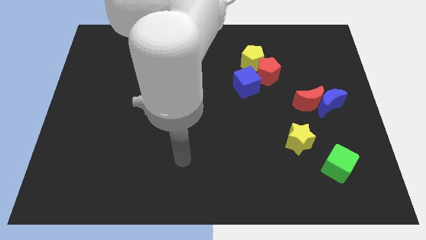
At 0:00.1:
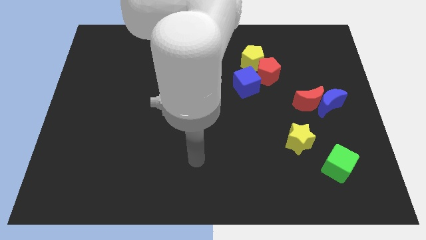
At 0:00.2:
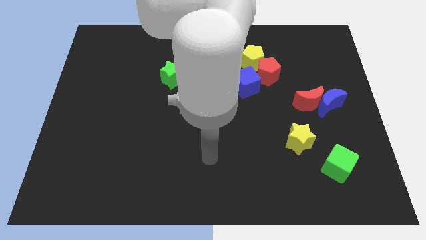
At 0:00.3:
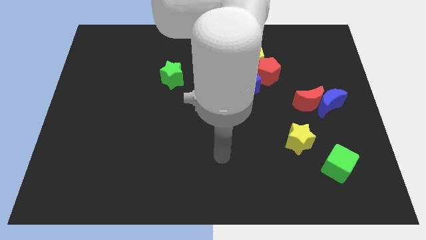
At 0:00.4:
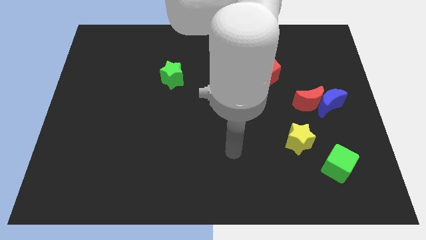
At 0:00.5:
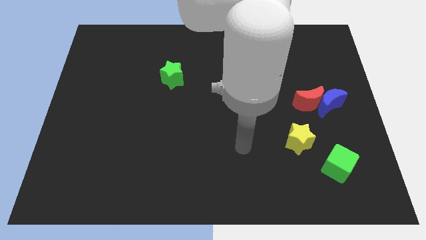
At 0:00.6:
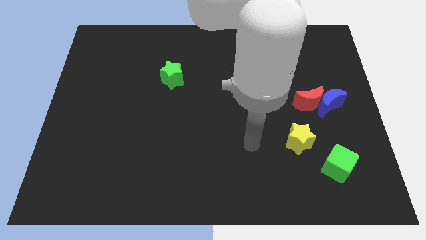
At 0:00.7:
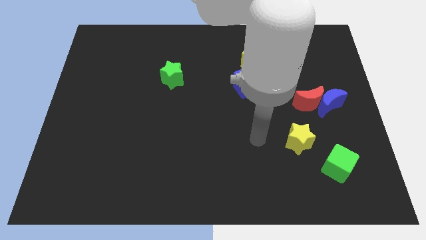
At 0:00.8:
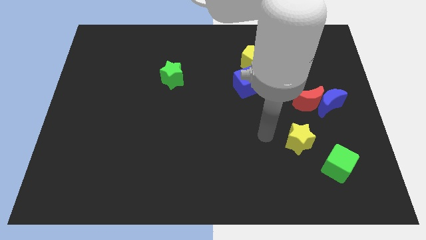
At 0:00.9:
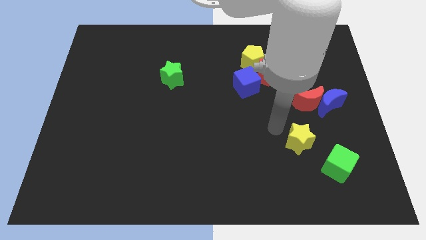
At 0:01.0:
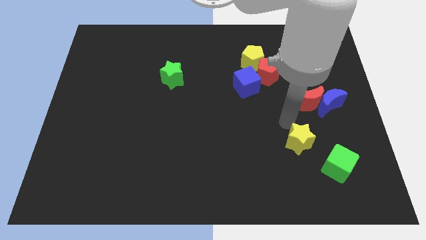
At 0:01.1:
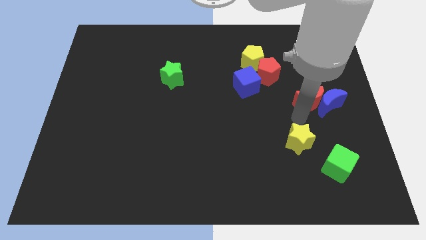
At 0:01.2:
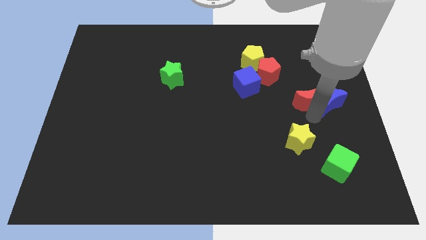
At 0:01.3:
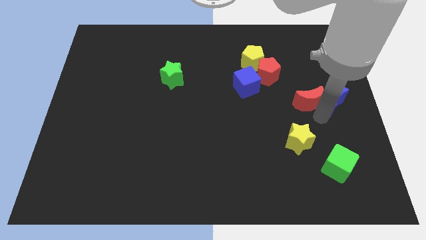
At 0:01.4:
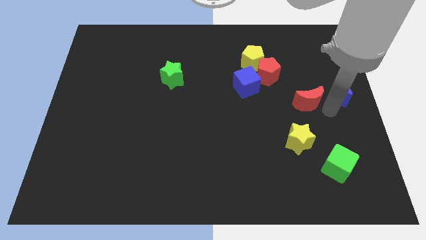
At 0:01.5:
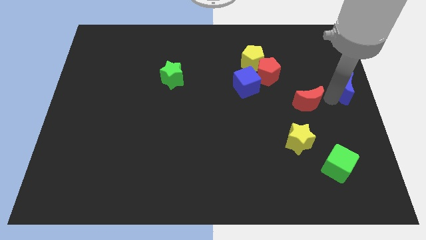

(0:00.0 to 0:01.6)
move the red moon away from the blue moon

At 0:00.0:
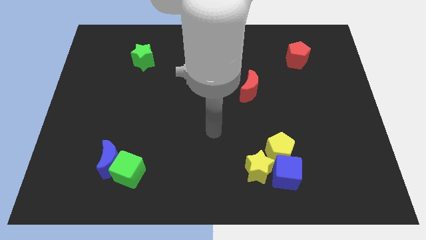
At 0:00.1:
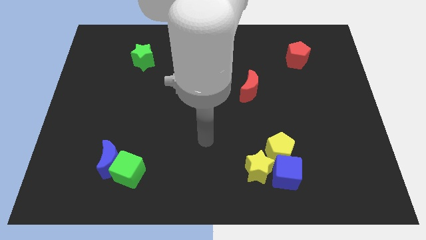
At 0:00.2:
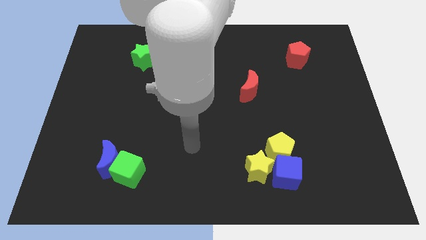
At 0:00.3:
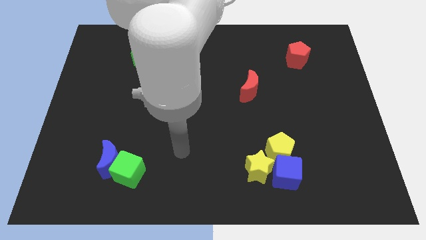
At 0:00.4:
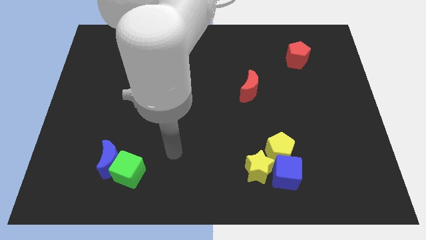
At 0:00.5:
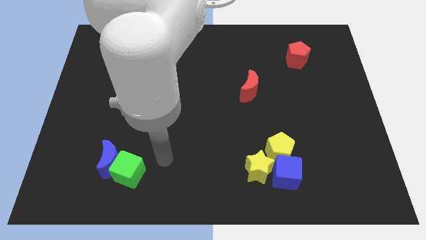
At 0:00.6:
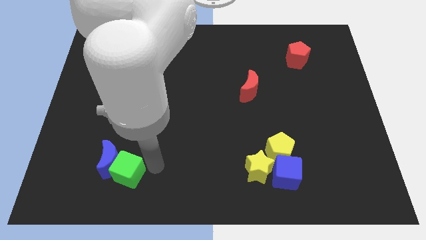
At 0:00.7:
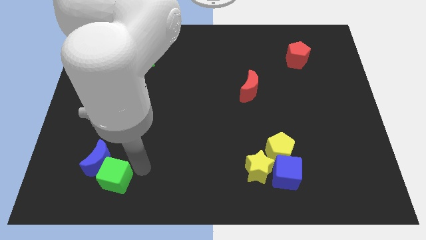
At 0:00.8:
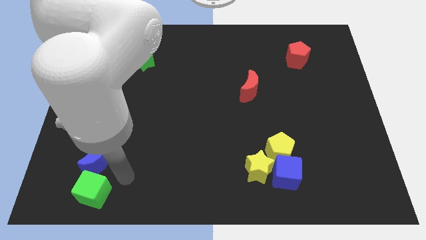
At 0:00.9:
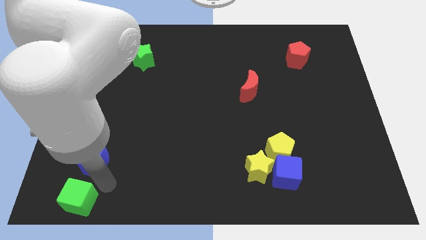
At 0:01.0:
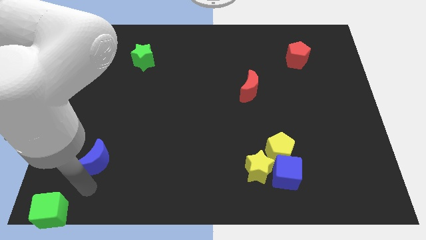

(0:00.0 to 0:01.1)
pull the blue moon apart from the green cube

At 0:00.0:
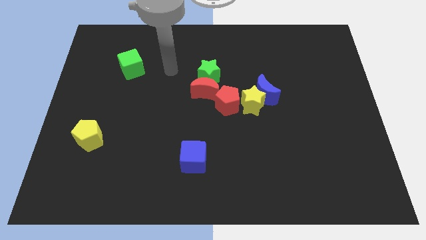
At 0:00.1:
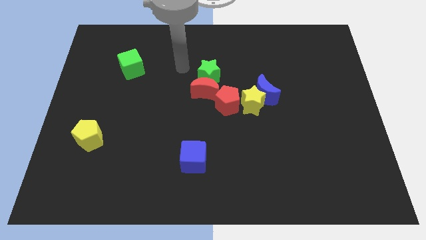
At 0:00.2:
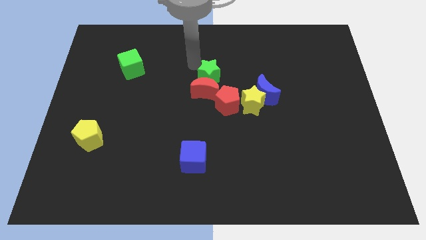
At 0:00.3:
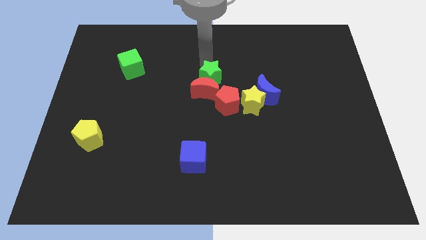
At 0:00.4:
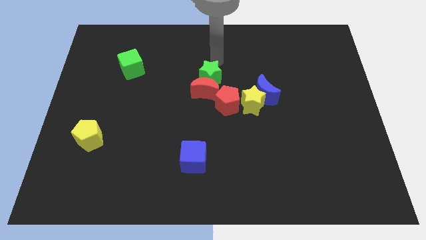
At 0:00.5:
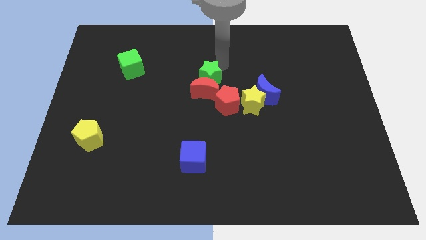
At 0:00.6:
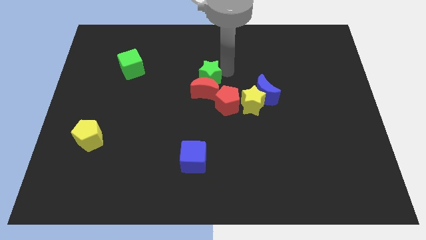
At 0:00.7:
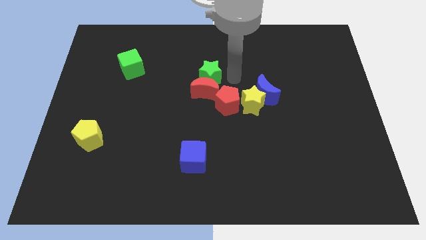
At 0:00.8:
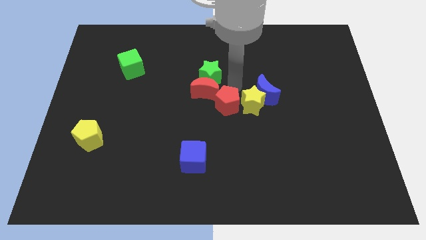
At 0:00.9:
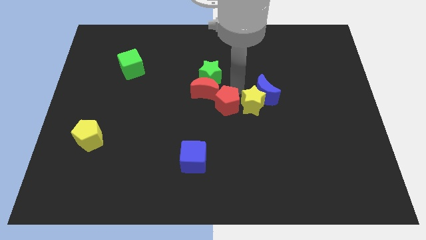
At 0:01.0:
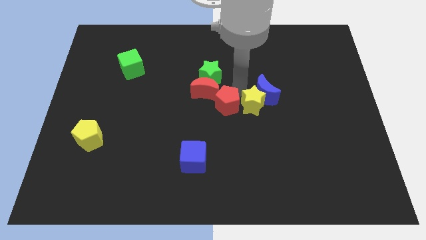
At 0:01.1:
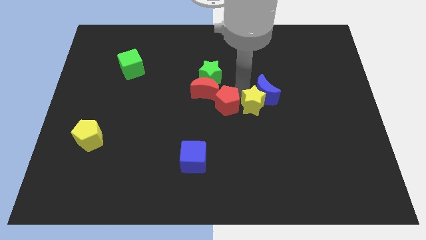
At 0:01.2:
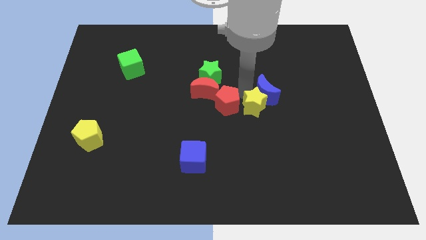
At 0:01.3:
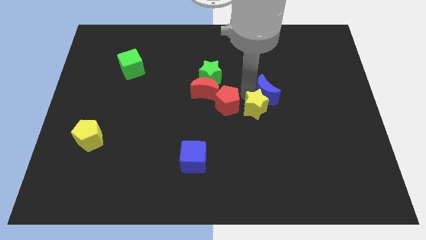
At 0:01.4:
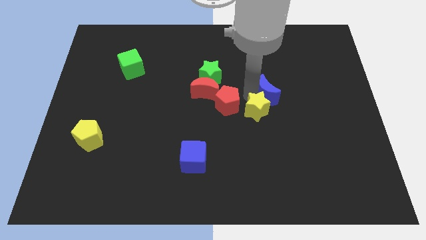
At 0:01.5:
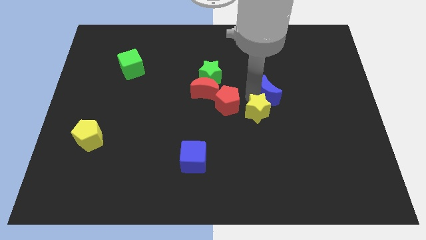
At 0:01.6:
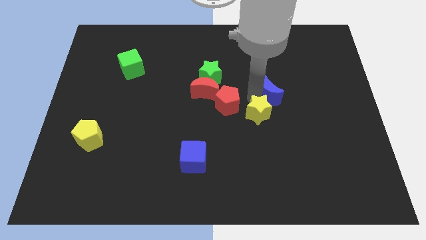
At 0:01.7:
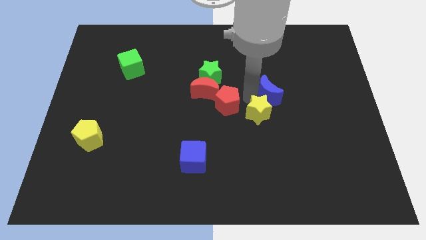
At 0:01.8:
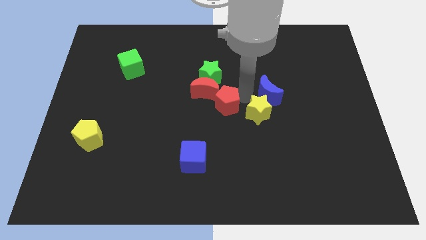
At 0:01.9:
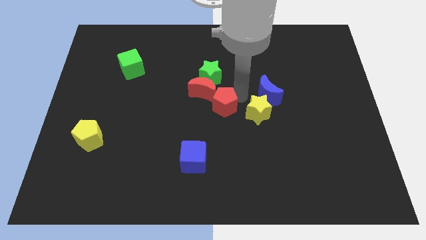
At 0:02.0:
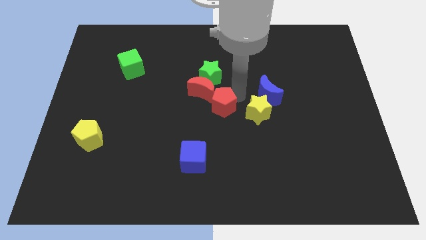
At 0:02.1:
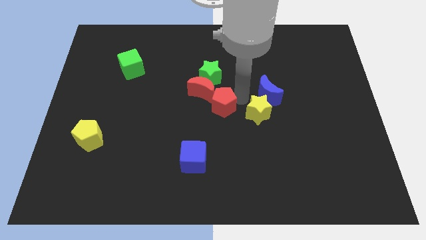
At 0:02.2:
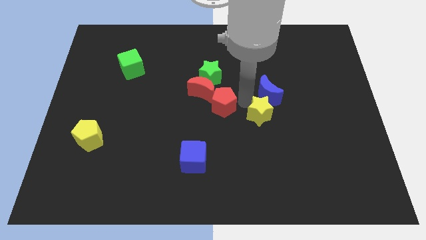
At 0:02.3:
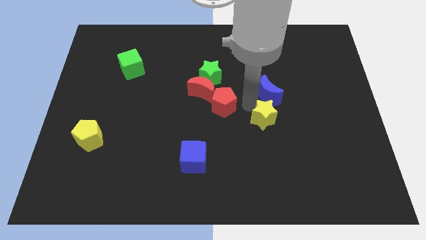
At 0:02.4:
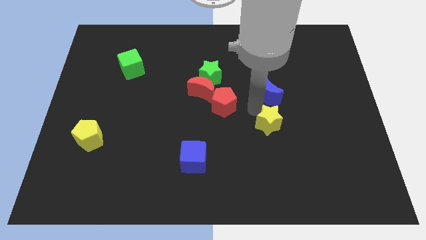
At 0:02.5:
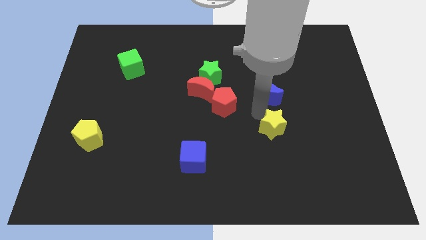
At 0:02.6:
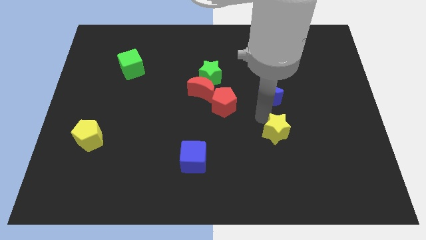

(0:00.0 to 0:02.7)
separate the yellow star from the blue moon and red pentagon

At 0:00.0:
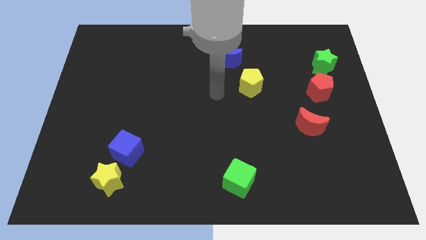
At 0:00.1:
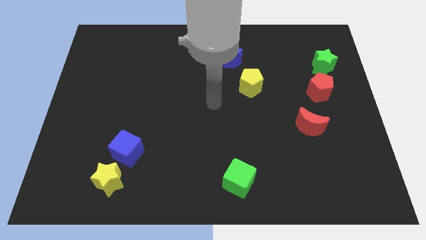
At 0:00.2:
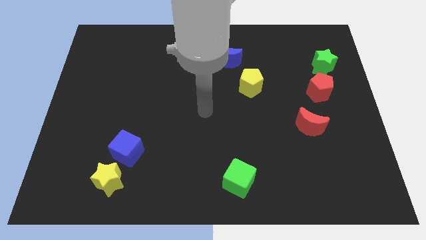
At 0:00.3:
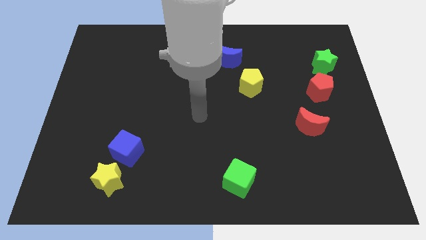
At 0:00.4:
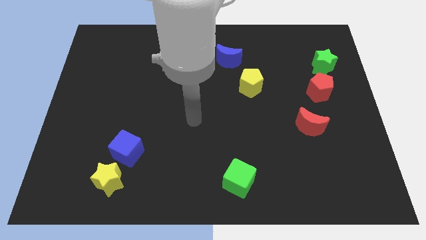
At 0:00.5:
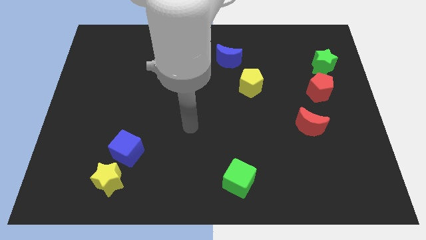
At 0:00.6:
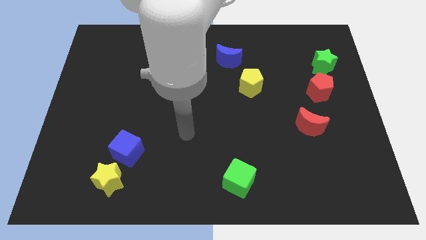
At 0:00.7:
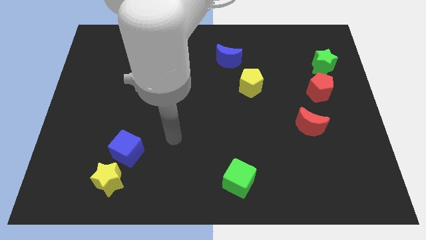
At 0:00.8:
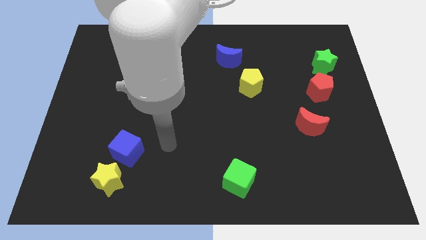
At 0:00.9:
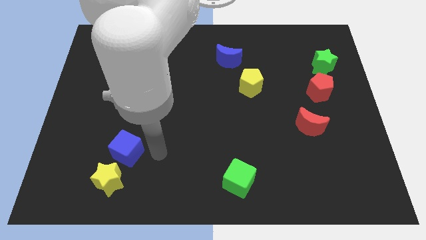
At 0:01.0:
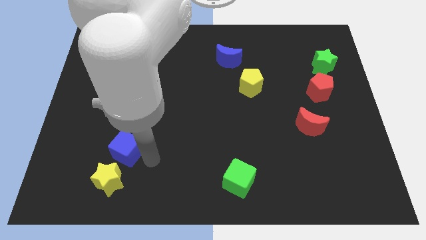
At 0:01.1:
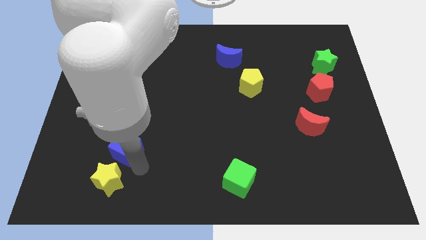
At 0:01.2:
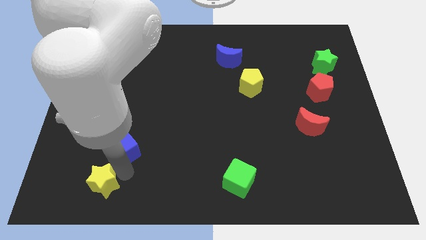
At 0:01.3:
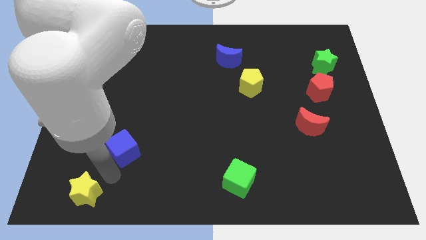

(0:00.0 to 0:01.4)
pull the blue cube apart from the yellow star

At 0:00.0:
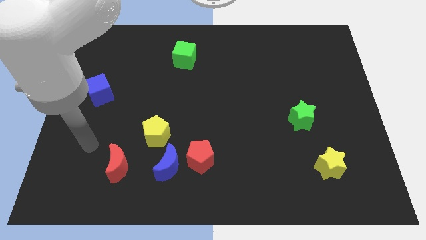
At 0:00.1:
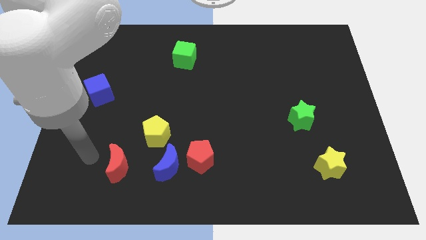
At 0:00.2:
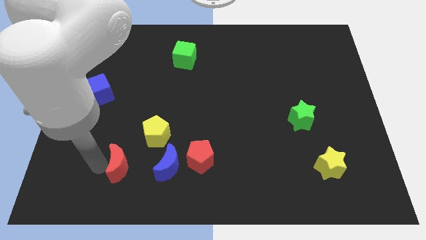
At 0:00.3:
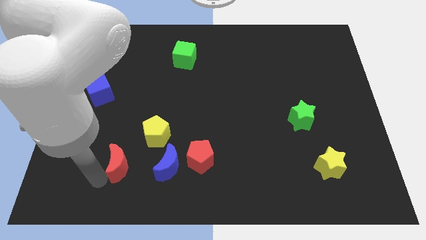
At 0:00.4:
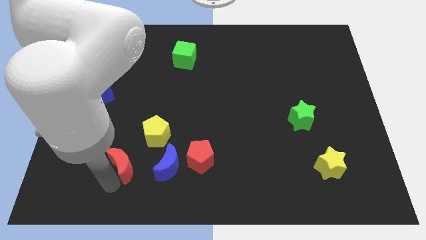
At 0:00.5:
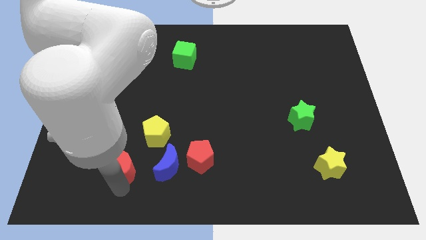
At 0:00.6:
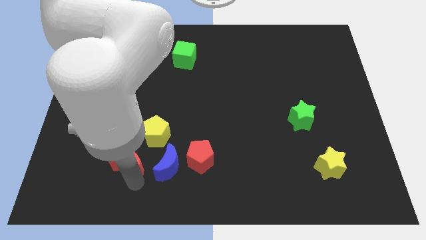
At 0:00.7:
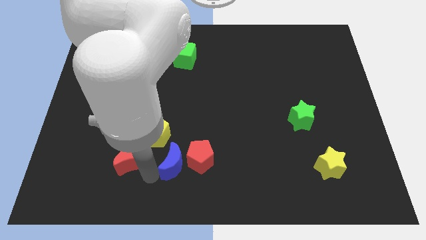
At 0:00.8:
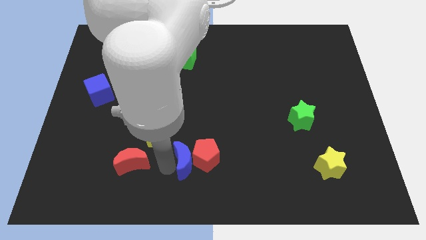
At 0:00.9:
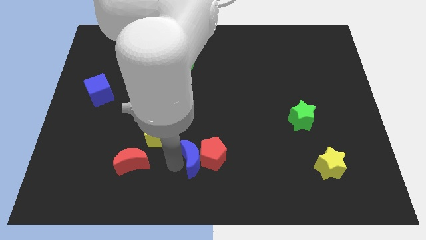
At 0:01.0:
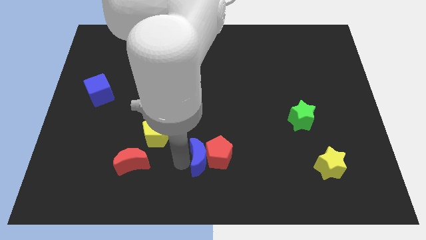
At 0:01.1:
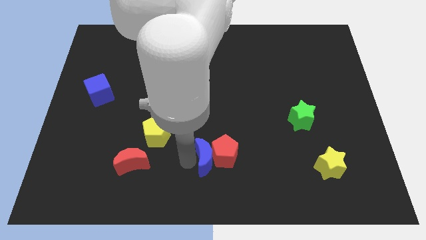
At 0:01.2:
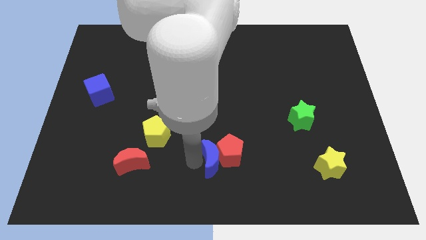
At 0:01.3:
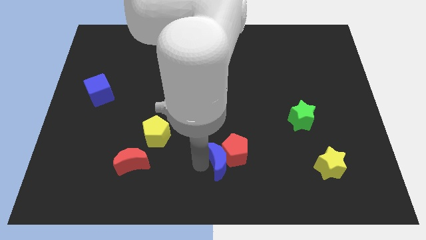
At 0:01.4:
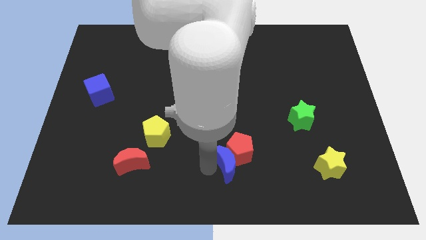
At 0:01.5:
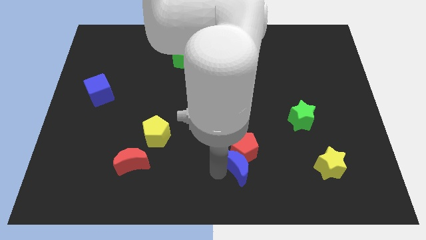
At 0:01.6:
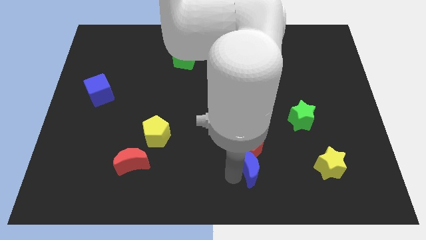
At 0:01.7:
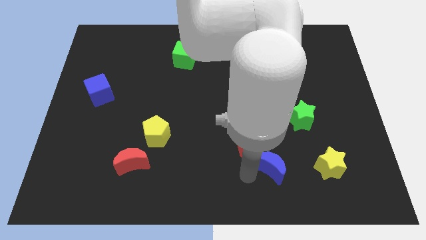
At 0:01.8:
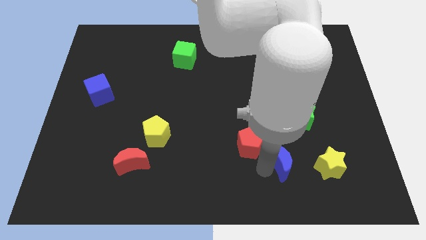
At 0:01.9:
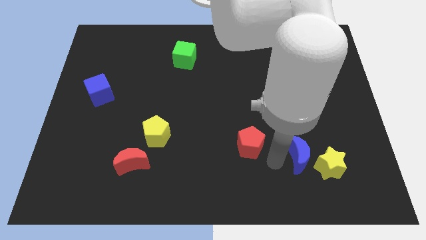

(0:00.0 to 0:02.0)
separate the red pentagon from the blue moon

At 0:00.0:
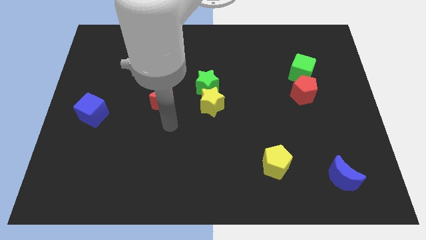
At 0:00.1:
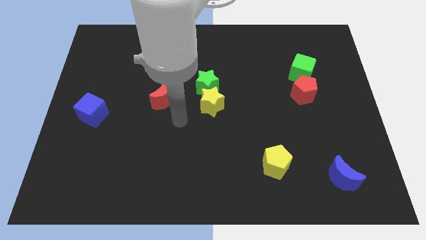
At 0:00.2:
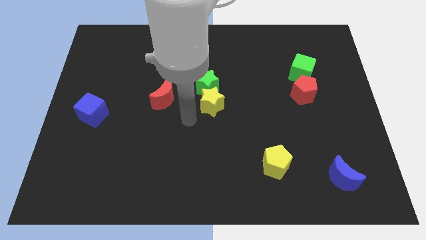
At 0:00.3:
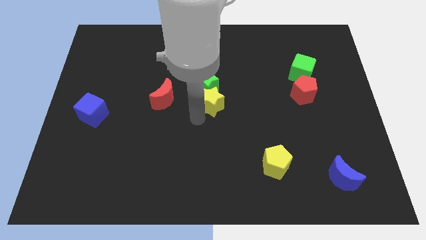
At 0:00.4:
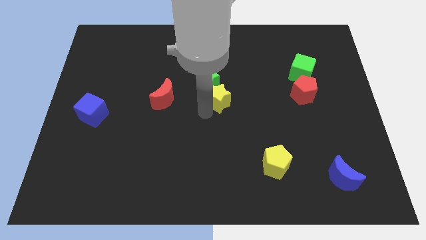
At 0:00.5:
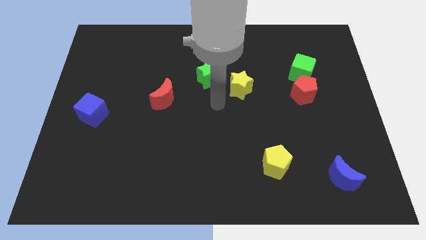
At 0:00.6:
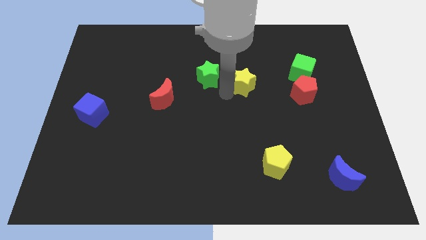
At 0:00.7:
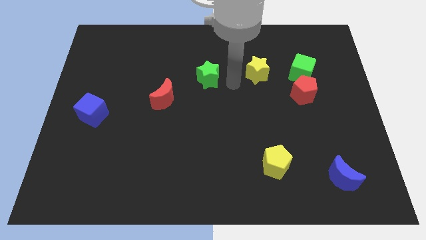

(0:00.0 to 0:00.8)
pull the green star apart from the yellow star
